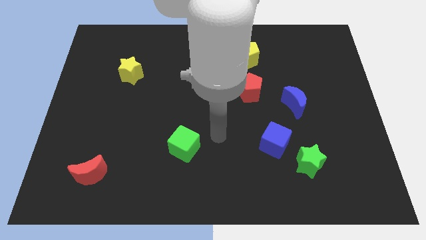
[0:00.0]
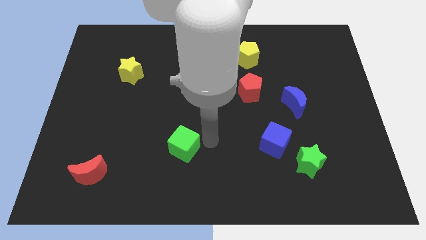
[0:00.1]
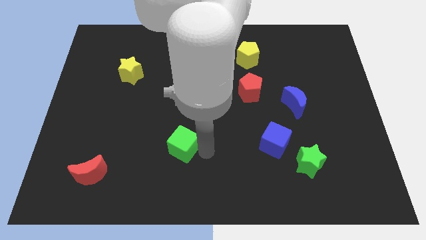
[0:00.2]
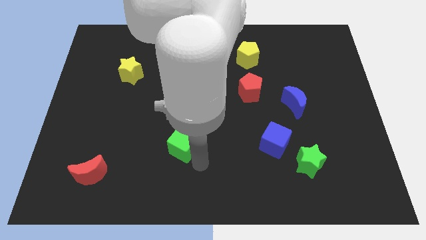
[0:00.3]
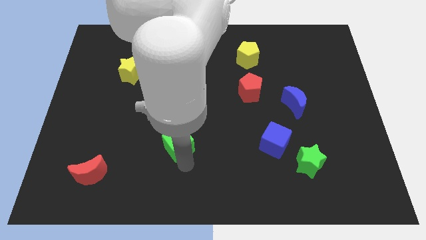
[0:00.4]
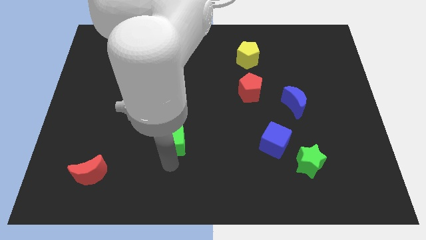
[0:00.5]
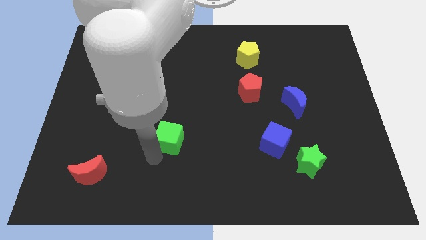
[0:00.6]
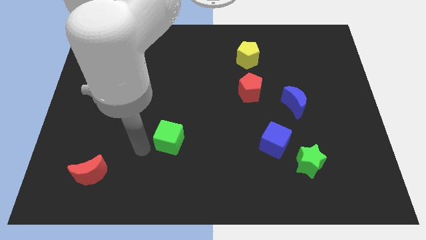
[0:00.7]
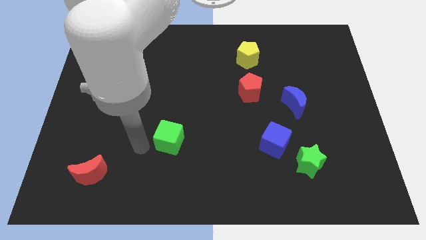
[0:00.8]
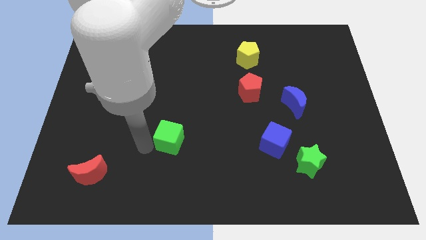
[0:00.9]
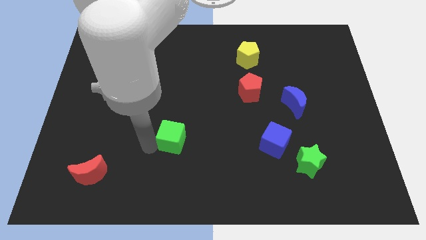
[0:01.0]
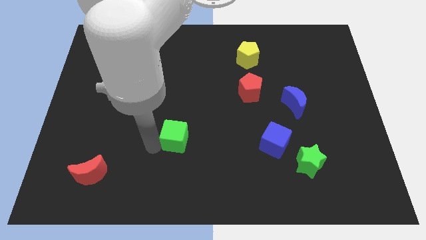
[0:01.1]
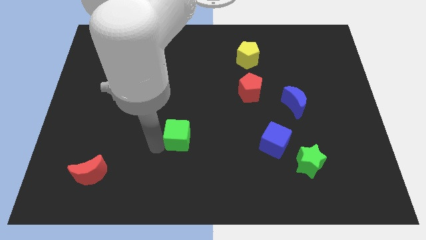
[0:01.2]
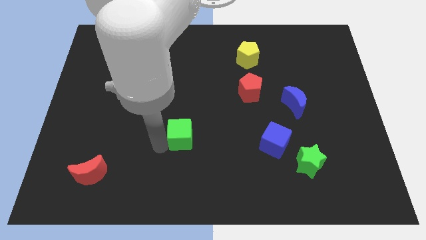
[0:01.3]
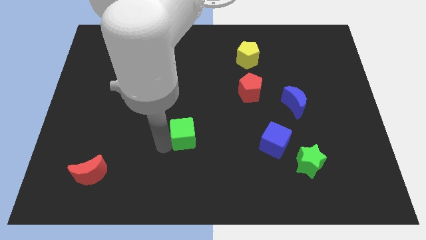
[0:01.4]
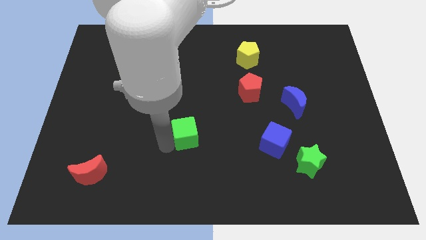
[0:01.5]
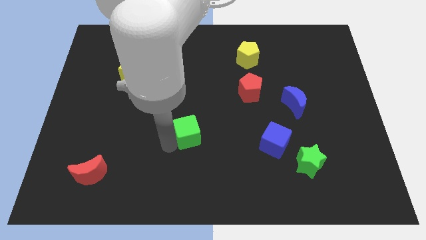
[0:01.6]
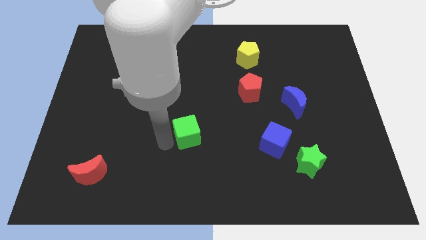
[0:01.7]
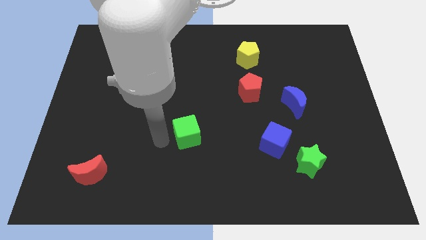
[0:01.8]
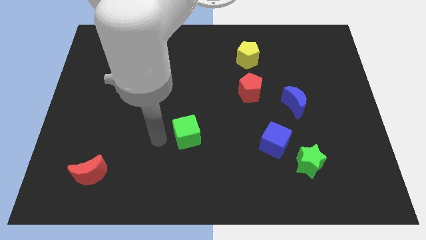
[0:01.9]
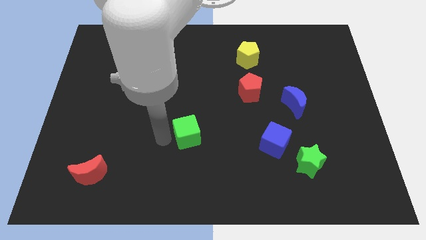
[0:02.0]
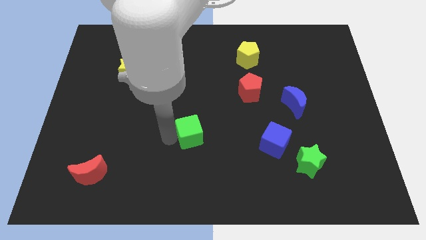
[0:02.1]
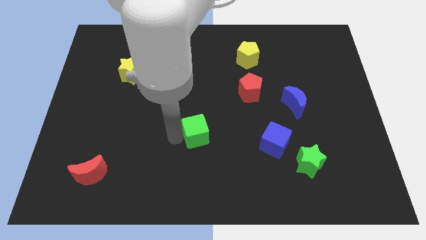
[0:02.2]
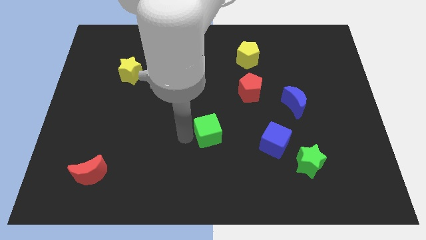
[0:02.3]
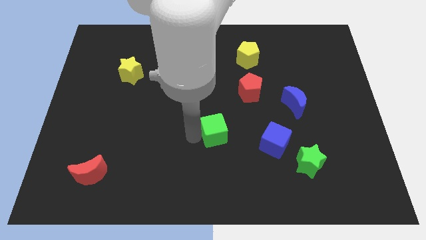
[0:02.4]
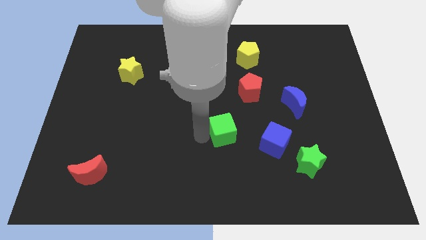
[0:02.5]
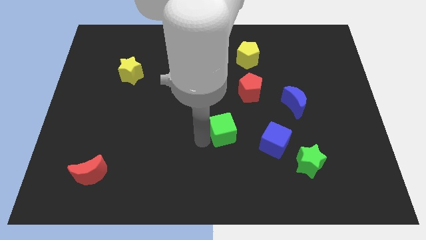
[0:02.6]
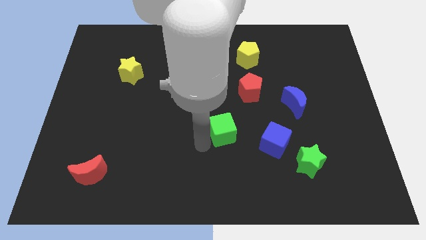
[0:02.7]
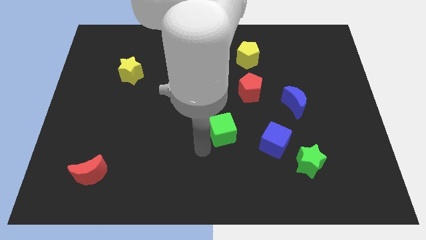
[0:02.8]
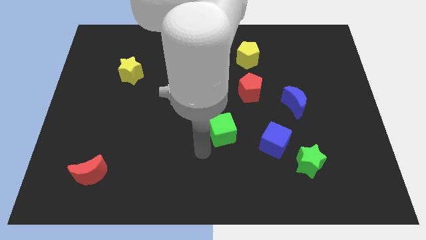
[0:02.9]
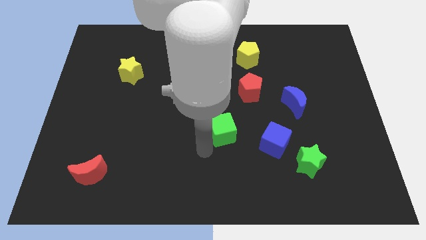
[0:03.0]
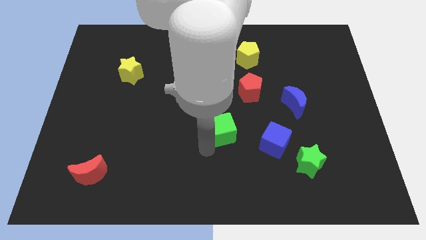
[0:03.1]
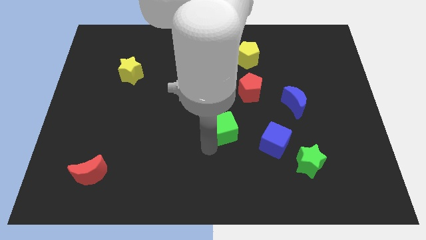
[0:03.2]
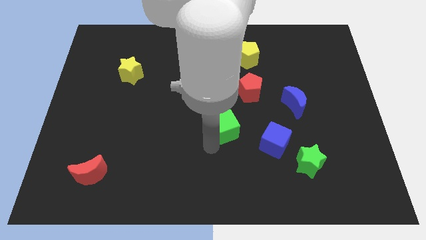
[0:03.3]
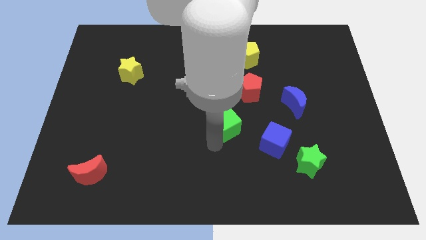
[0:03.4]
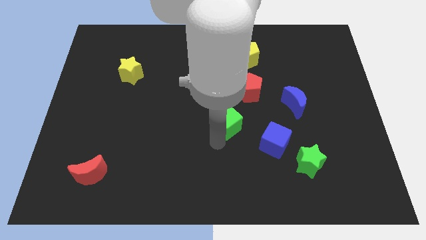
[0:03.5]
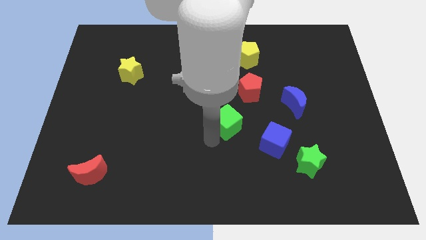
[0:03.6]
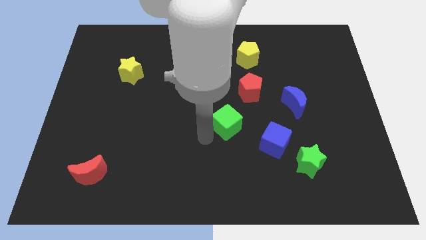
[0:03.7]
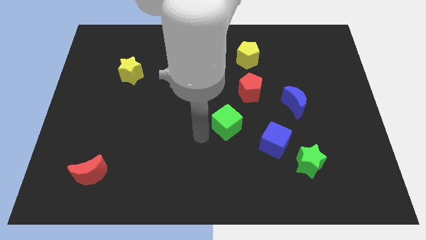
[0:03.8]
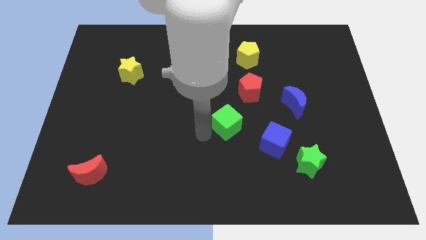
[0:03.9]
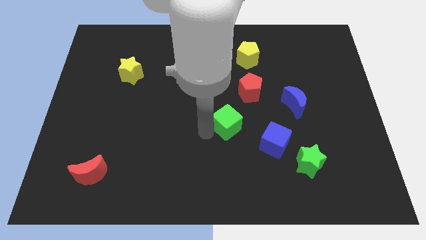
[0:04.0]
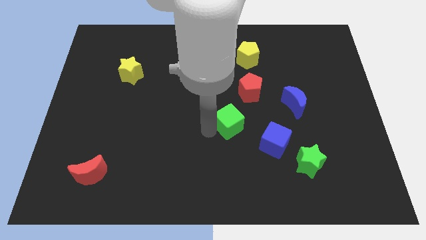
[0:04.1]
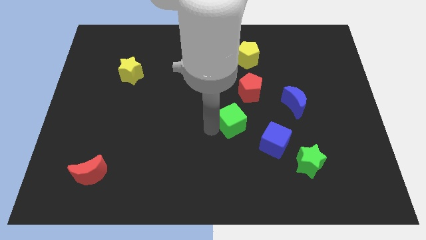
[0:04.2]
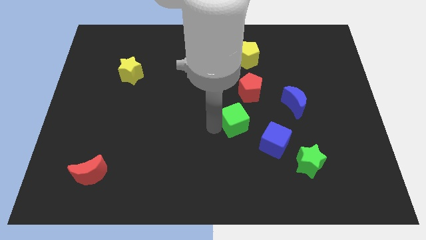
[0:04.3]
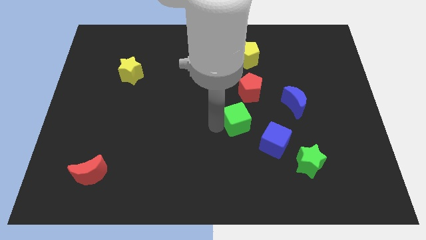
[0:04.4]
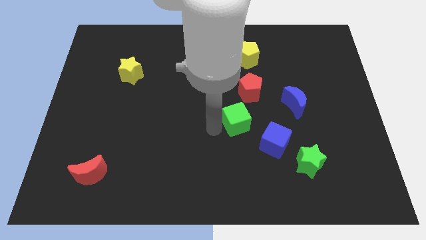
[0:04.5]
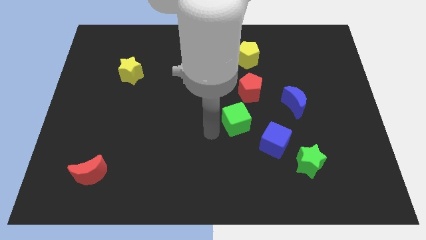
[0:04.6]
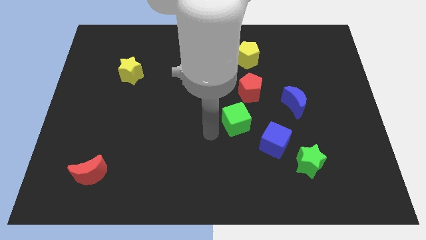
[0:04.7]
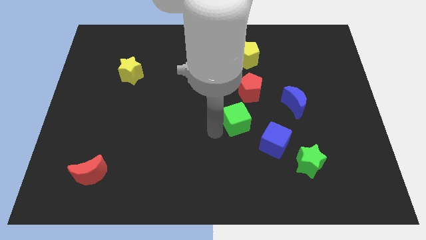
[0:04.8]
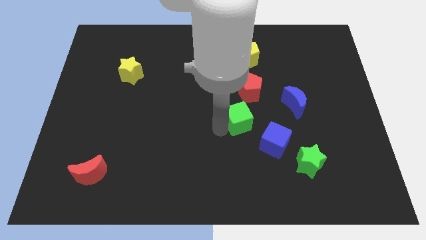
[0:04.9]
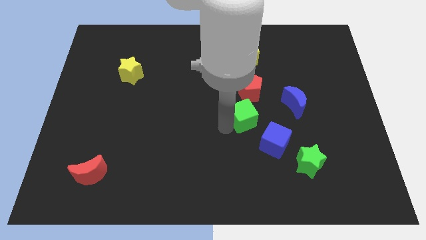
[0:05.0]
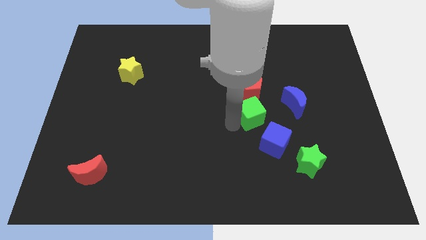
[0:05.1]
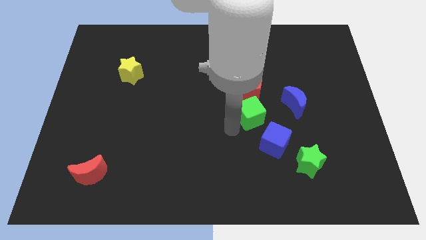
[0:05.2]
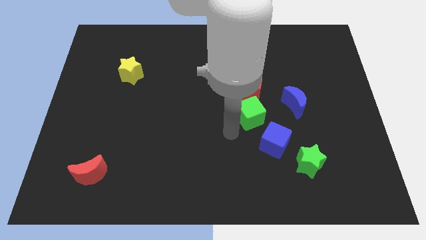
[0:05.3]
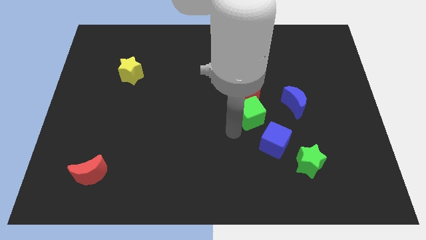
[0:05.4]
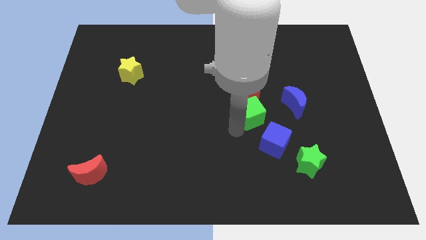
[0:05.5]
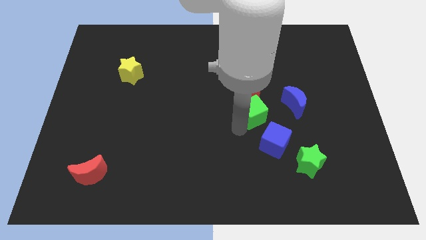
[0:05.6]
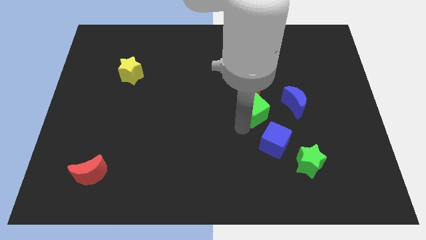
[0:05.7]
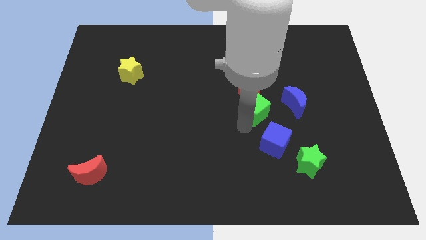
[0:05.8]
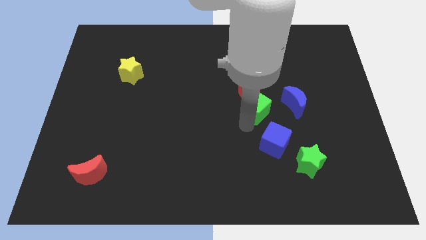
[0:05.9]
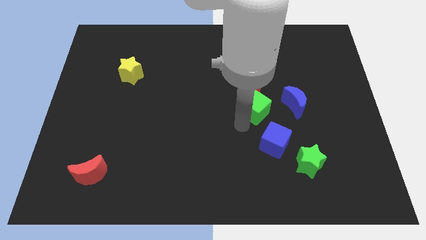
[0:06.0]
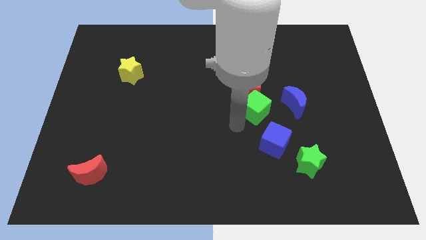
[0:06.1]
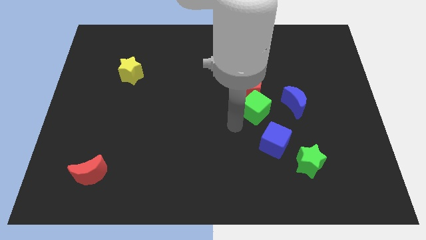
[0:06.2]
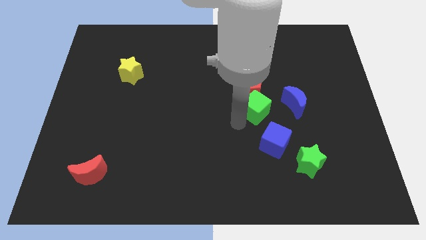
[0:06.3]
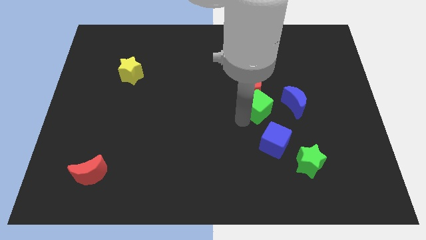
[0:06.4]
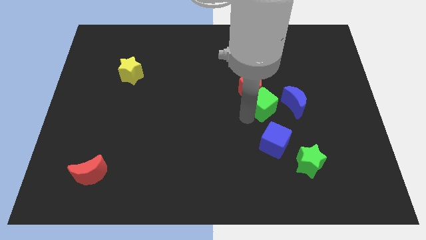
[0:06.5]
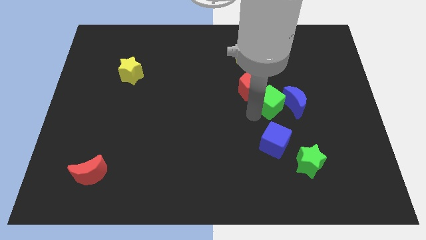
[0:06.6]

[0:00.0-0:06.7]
slide the green cube upwards and then right

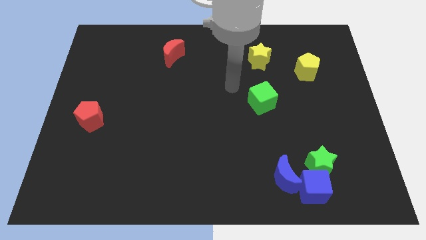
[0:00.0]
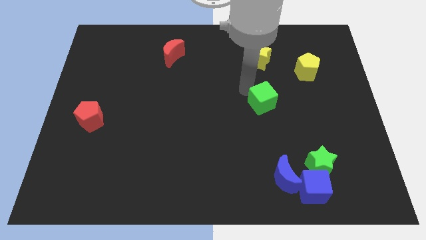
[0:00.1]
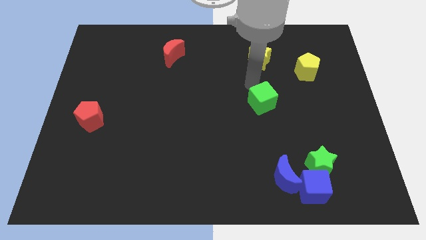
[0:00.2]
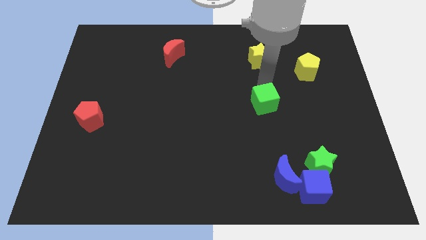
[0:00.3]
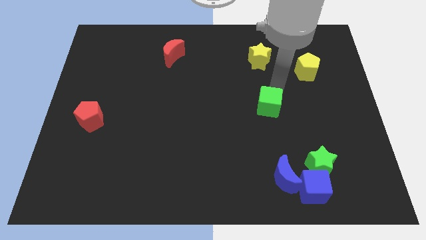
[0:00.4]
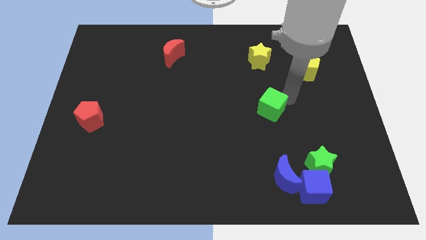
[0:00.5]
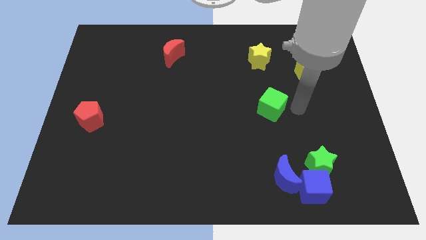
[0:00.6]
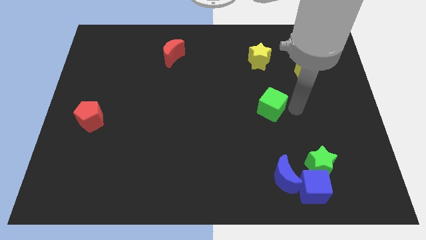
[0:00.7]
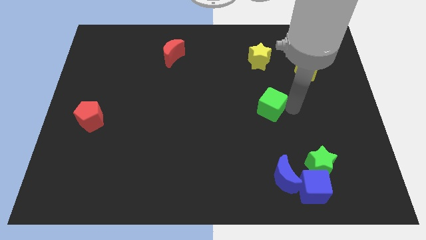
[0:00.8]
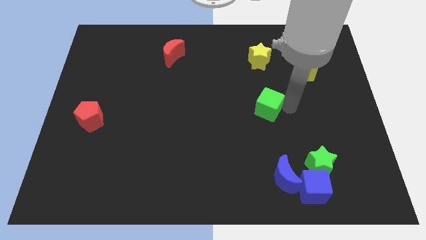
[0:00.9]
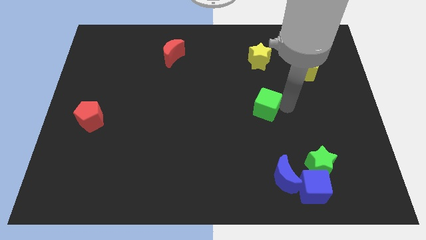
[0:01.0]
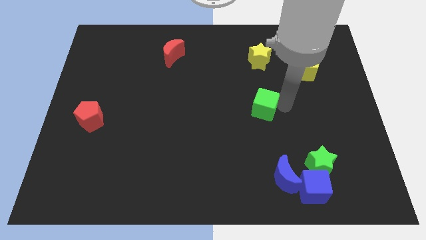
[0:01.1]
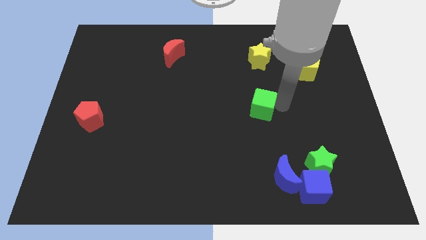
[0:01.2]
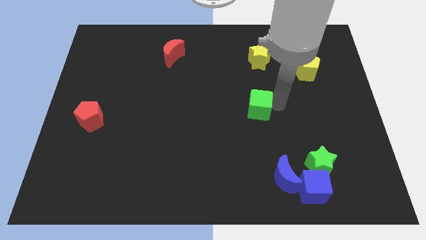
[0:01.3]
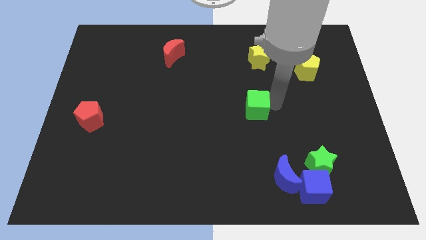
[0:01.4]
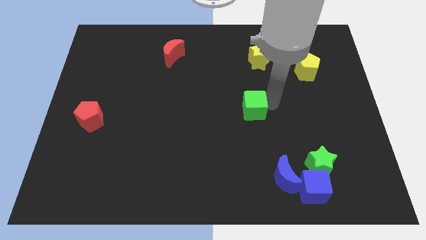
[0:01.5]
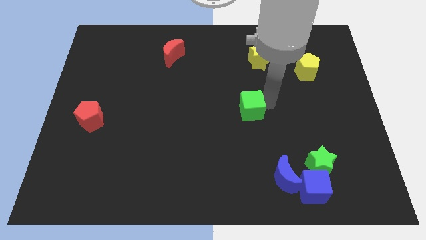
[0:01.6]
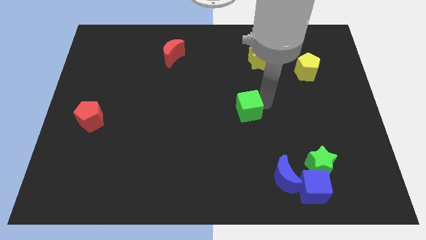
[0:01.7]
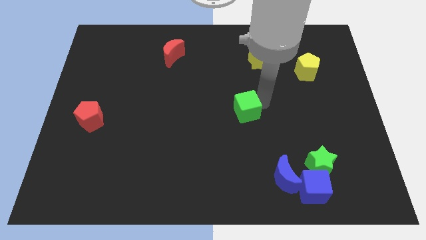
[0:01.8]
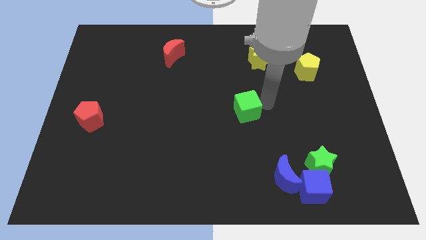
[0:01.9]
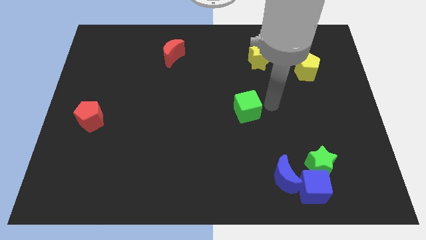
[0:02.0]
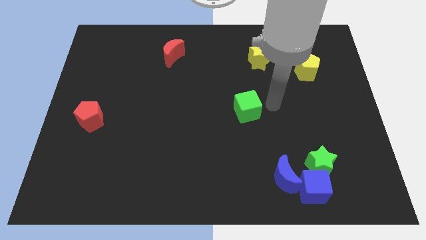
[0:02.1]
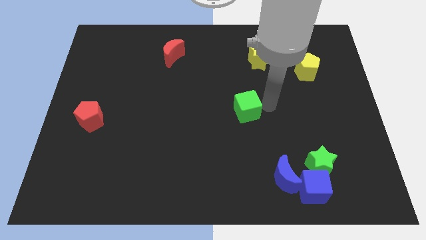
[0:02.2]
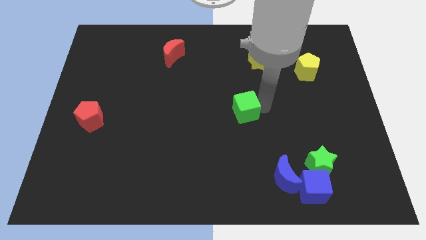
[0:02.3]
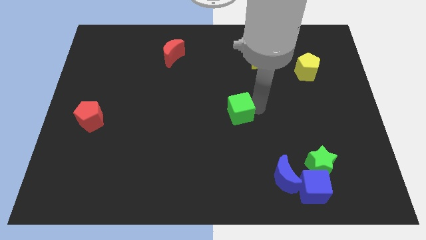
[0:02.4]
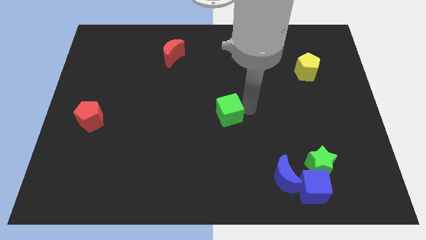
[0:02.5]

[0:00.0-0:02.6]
move the green cube slightly downwards and left diagonally
